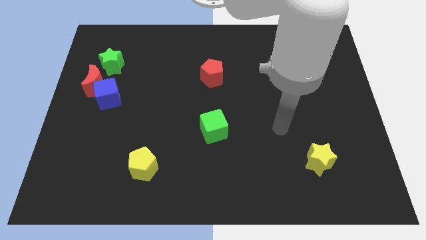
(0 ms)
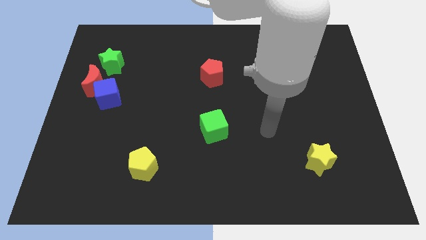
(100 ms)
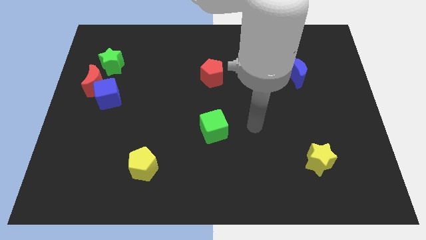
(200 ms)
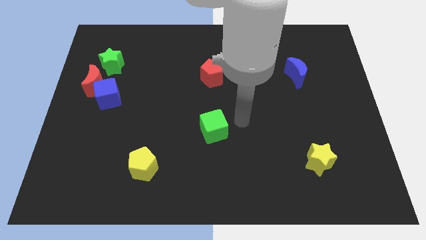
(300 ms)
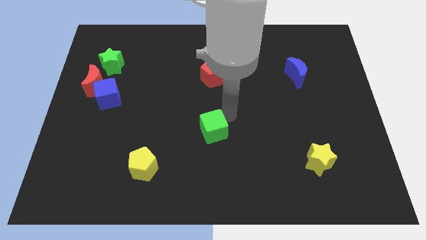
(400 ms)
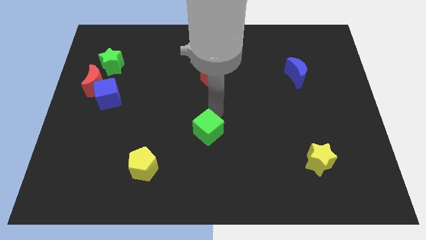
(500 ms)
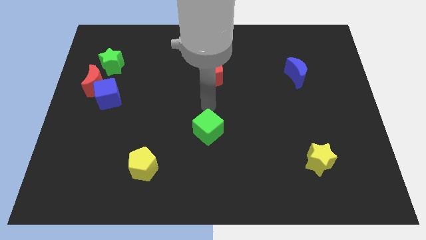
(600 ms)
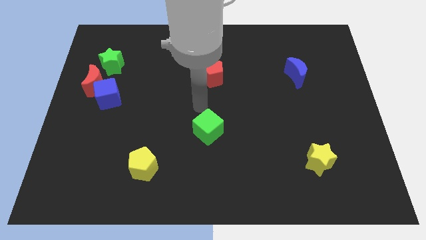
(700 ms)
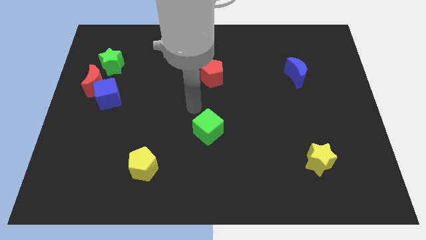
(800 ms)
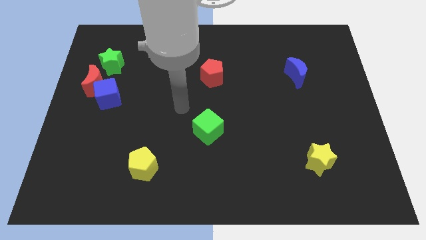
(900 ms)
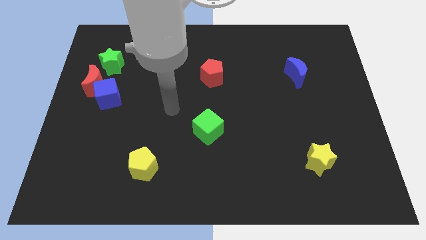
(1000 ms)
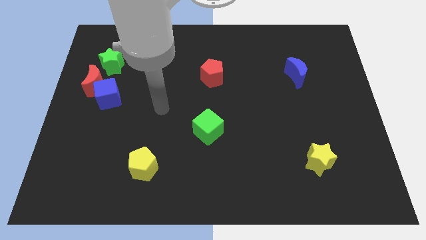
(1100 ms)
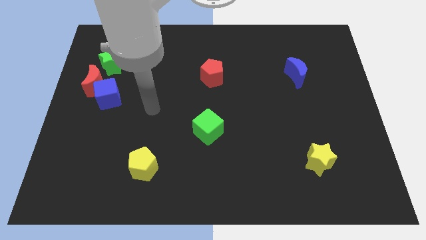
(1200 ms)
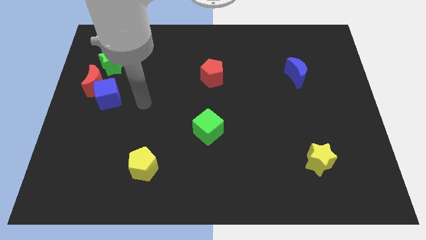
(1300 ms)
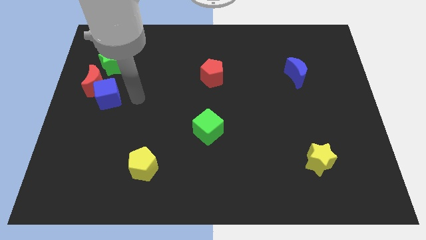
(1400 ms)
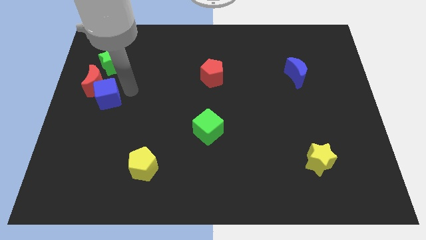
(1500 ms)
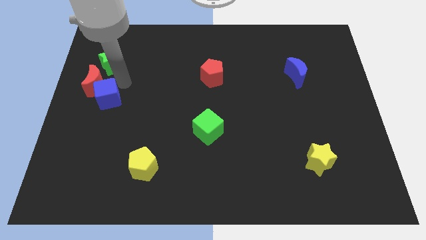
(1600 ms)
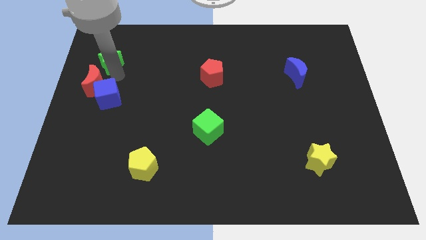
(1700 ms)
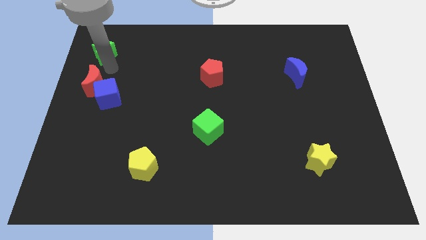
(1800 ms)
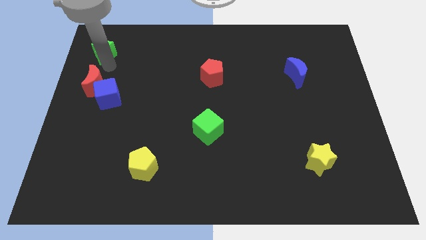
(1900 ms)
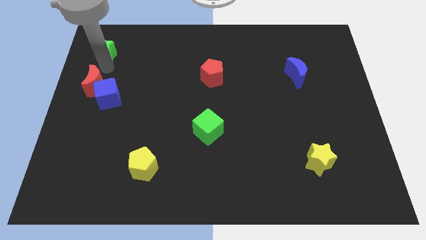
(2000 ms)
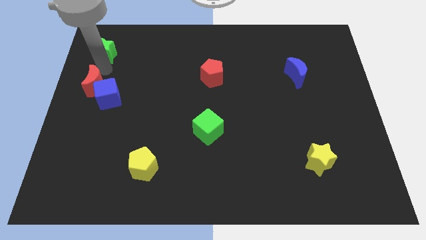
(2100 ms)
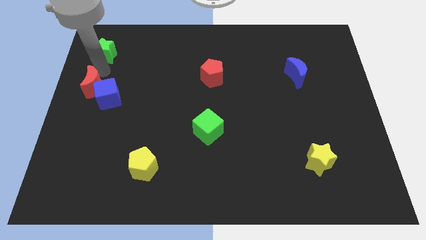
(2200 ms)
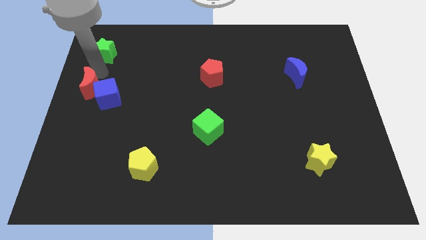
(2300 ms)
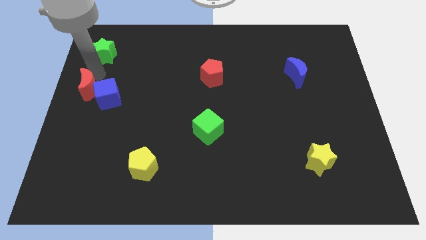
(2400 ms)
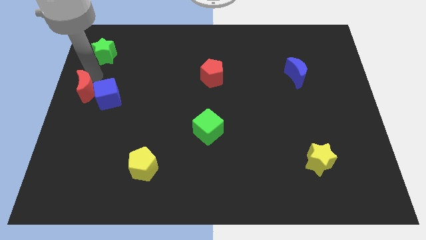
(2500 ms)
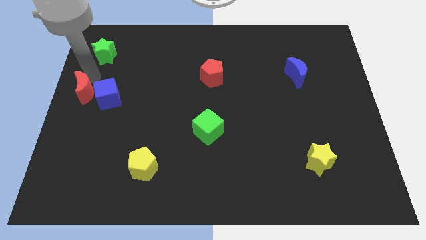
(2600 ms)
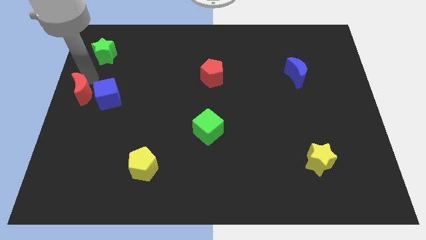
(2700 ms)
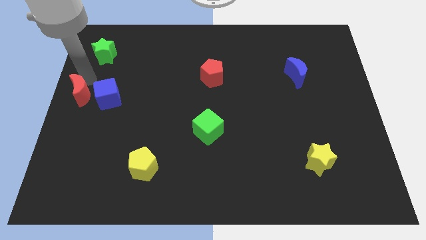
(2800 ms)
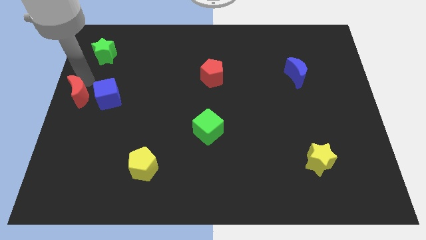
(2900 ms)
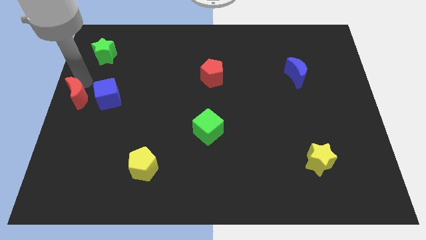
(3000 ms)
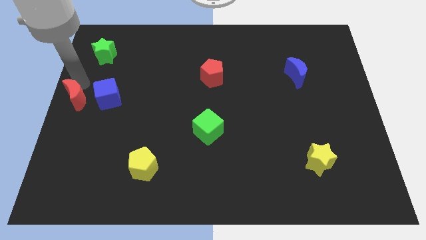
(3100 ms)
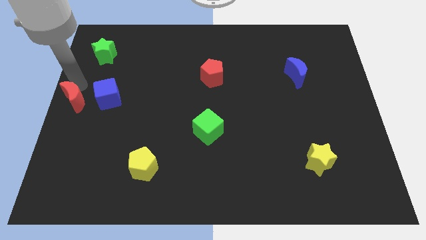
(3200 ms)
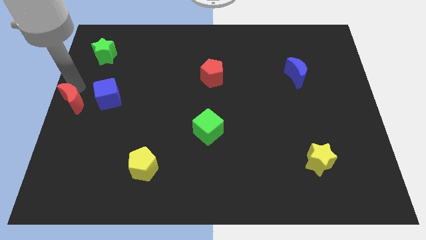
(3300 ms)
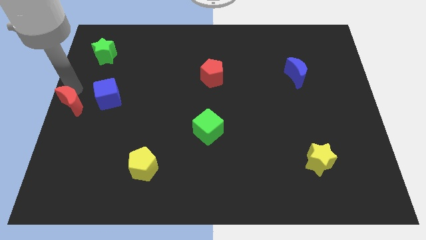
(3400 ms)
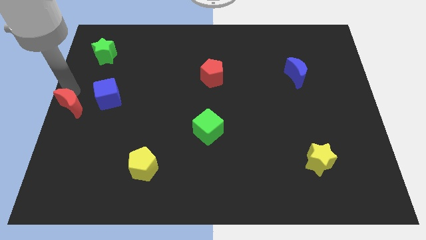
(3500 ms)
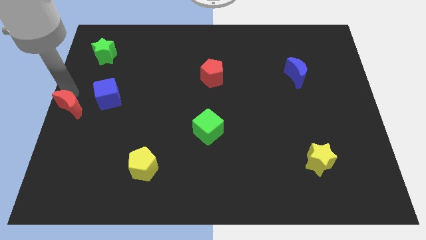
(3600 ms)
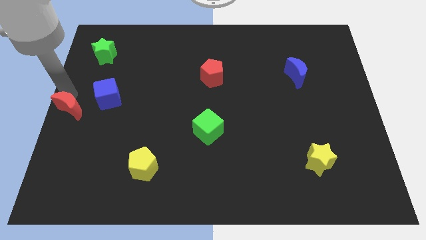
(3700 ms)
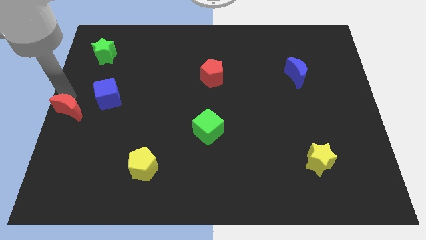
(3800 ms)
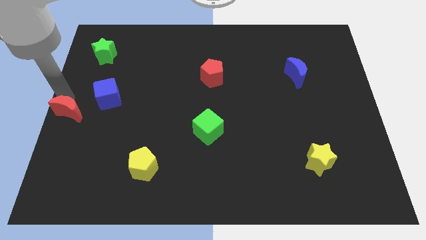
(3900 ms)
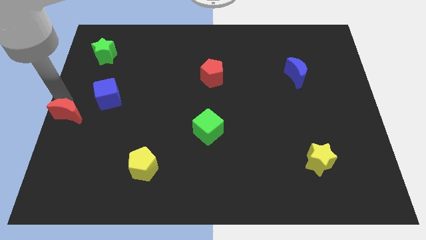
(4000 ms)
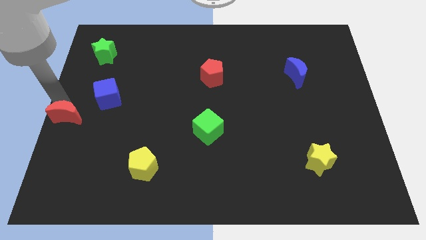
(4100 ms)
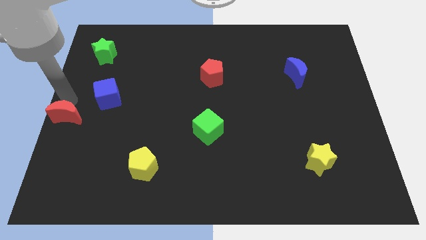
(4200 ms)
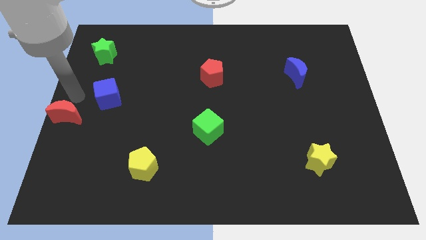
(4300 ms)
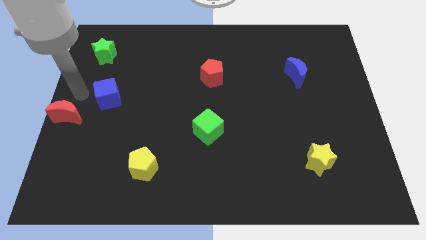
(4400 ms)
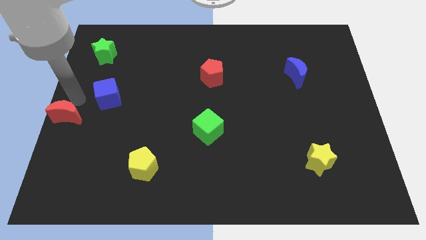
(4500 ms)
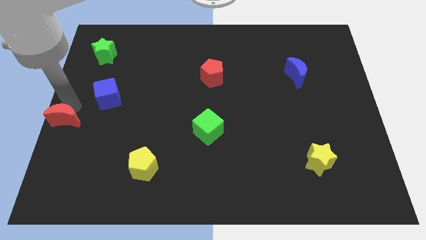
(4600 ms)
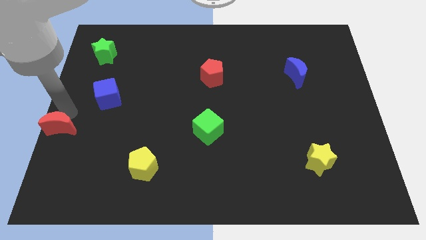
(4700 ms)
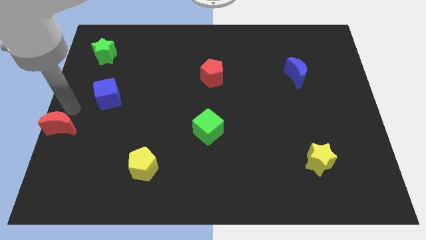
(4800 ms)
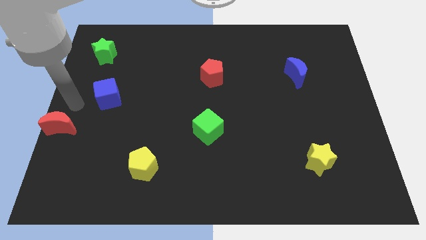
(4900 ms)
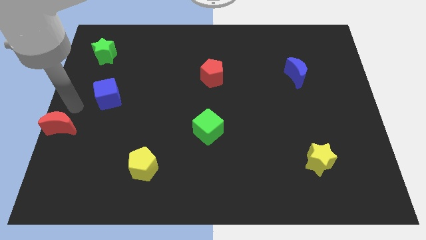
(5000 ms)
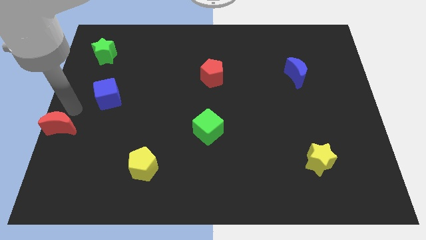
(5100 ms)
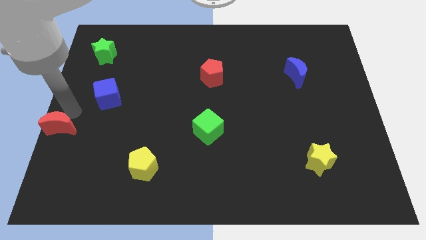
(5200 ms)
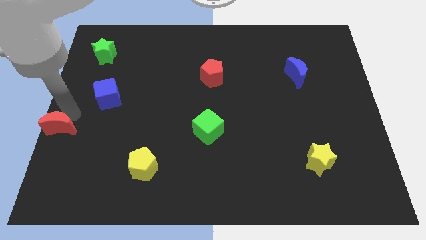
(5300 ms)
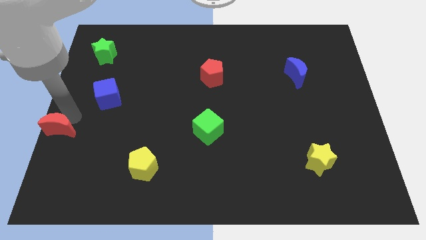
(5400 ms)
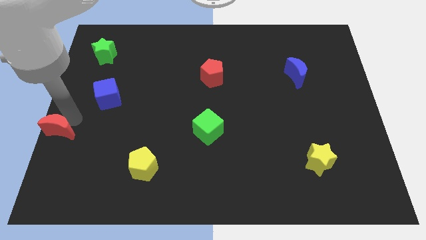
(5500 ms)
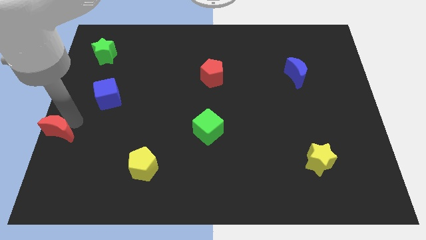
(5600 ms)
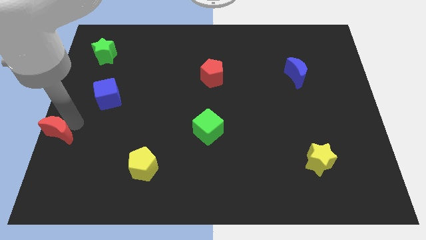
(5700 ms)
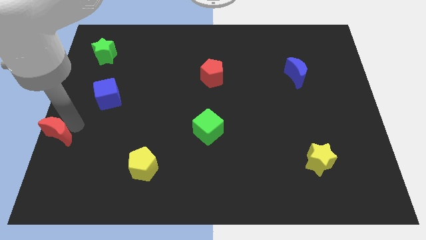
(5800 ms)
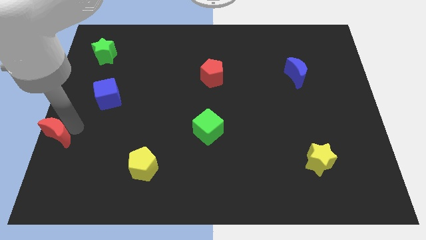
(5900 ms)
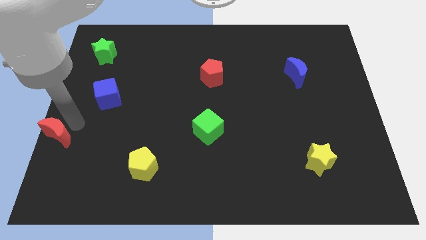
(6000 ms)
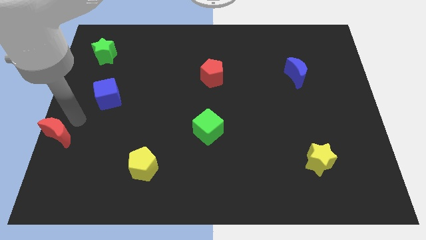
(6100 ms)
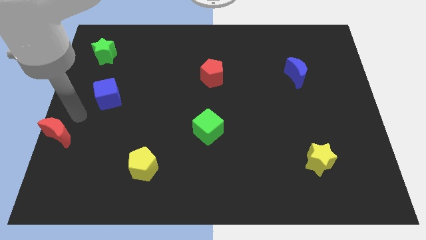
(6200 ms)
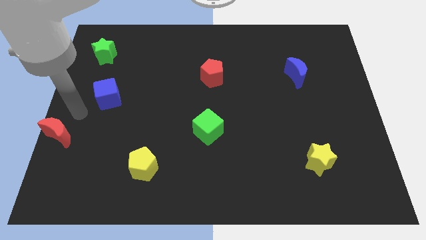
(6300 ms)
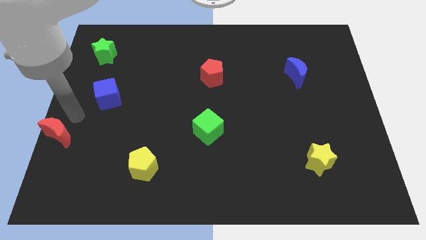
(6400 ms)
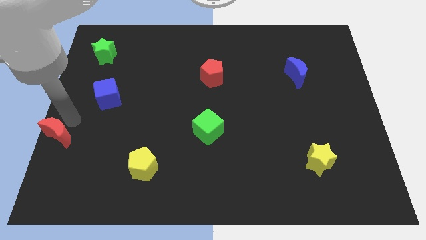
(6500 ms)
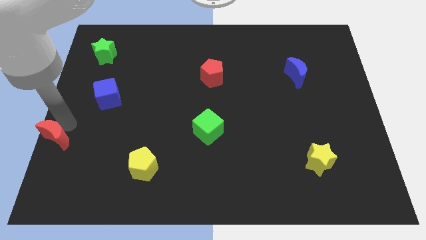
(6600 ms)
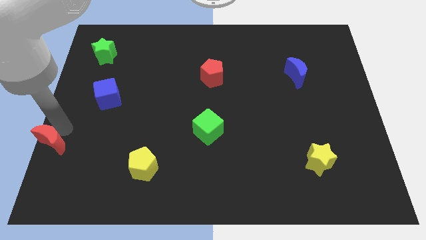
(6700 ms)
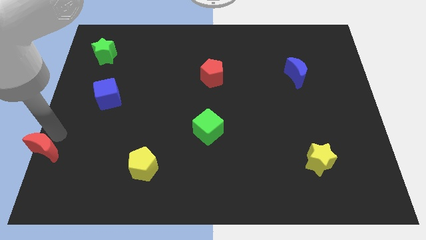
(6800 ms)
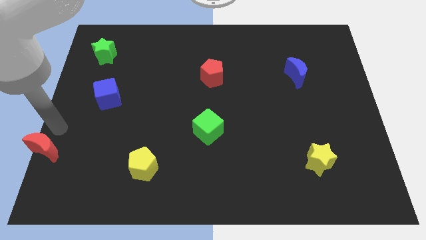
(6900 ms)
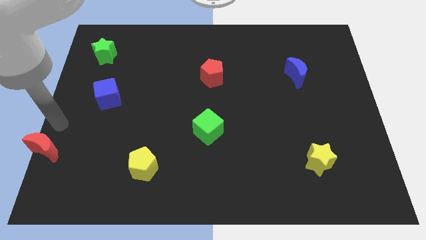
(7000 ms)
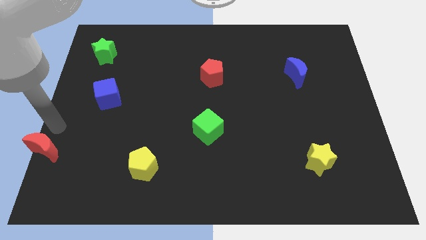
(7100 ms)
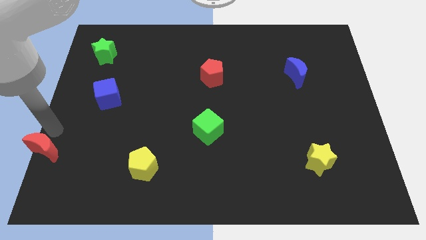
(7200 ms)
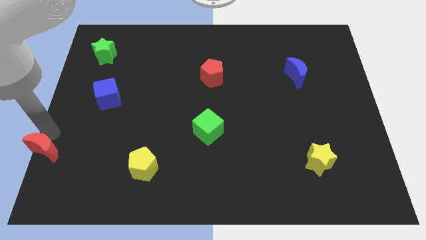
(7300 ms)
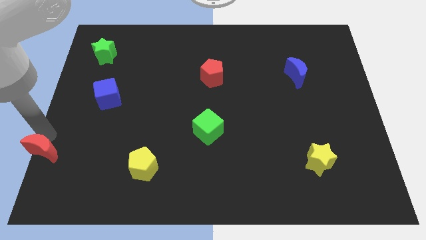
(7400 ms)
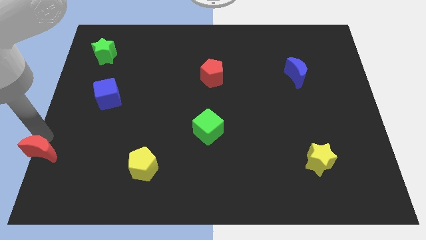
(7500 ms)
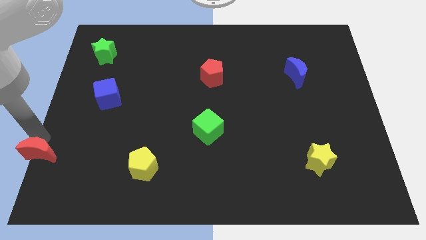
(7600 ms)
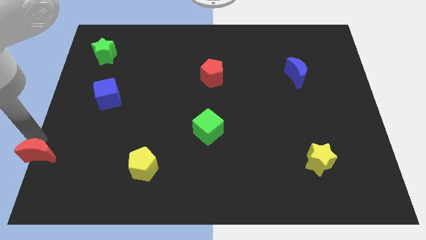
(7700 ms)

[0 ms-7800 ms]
put the red moon to the bottom left corner
